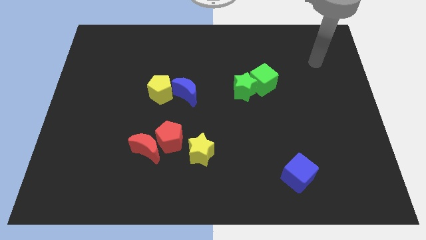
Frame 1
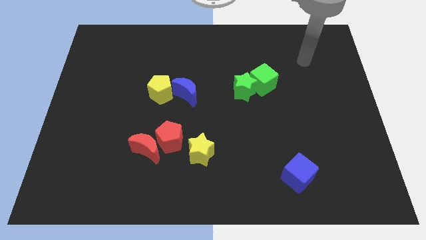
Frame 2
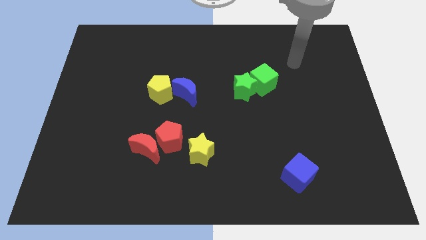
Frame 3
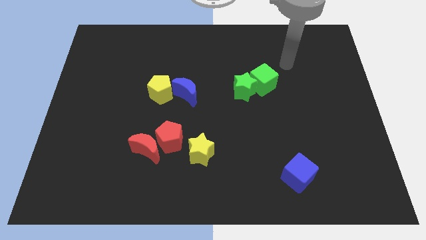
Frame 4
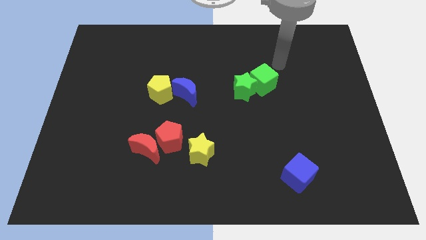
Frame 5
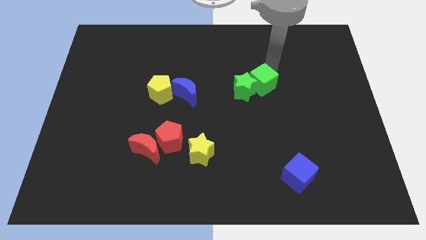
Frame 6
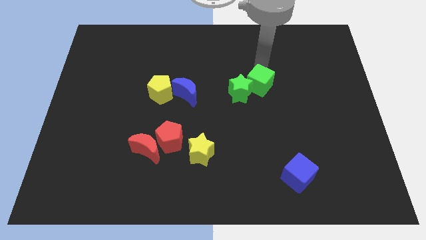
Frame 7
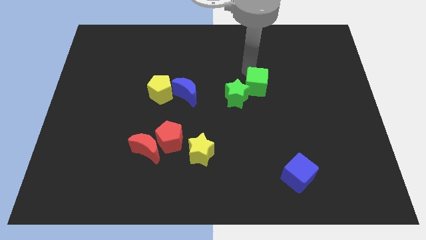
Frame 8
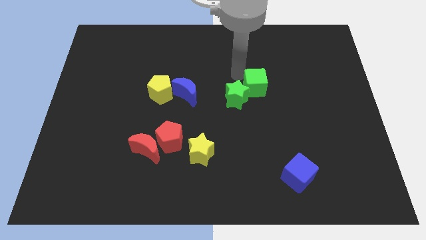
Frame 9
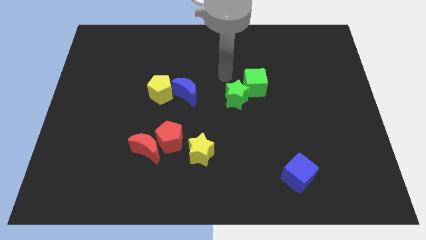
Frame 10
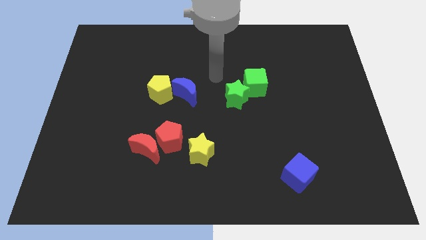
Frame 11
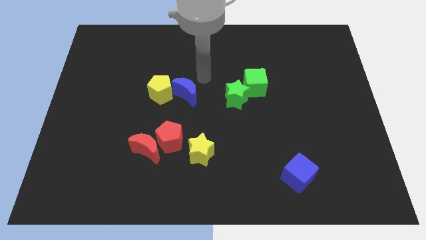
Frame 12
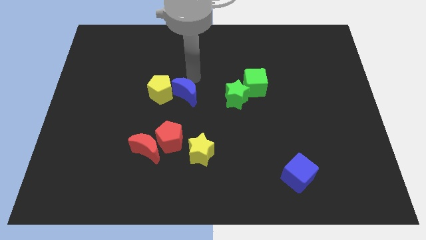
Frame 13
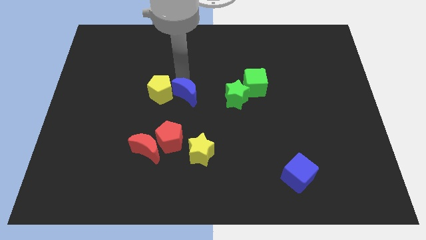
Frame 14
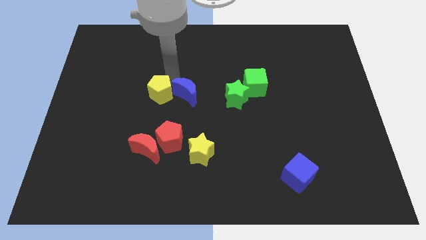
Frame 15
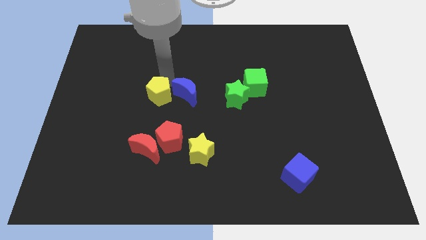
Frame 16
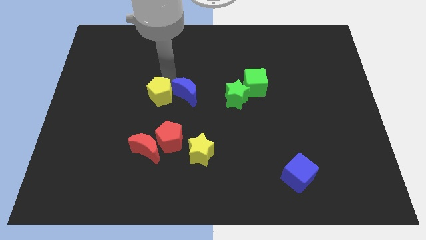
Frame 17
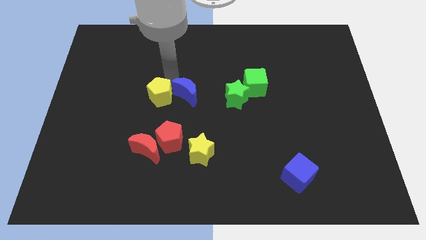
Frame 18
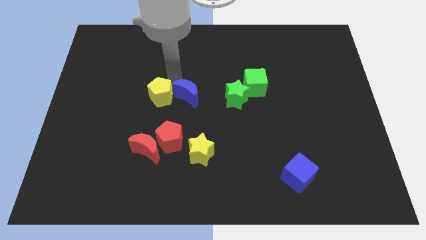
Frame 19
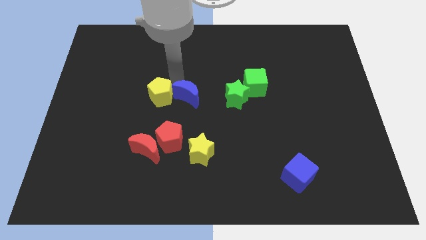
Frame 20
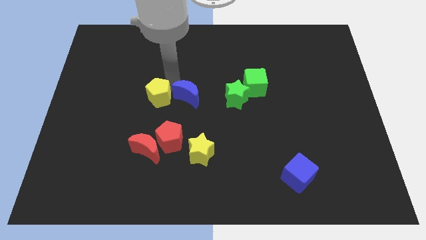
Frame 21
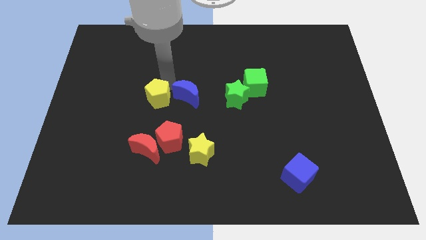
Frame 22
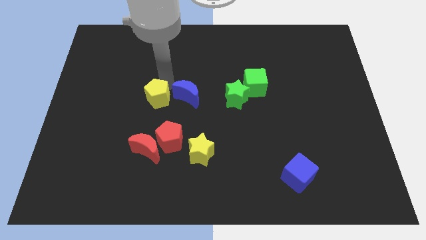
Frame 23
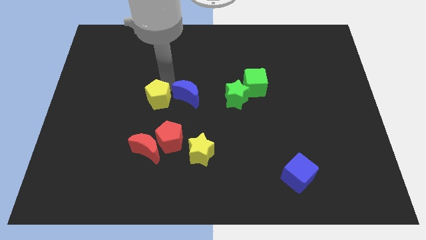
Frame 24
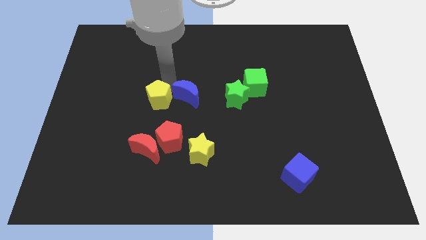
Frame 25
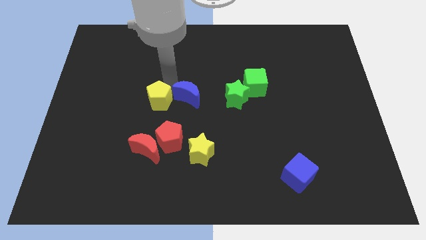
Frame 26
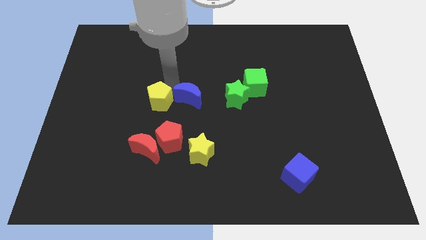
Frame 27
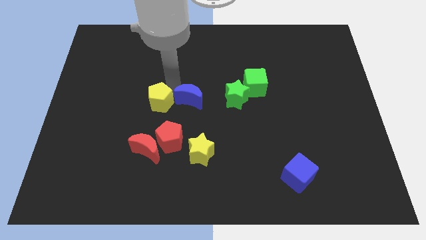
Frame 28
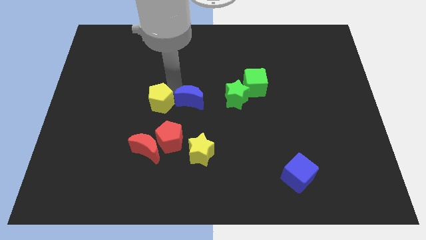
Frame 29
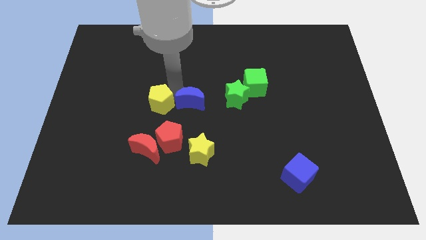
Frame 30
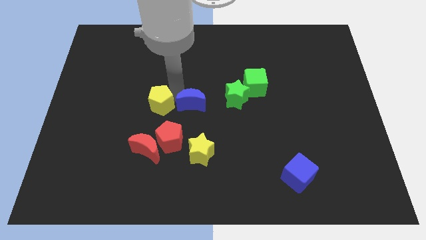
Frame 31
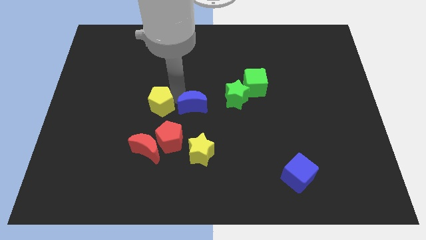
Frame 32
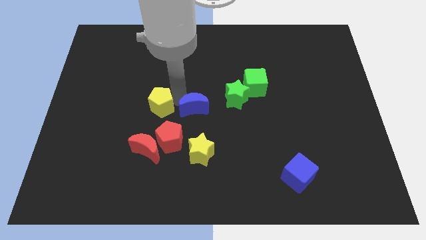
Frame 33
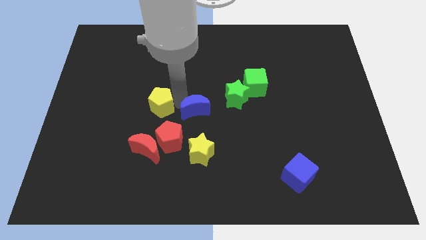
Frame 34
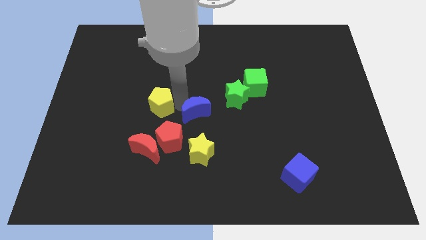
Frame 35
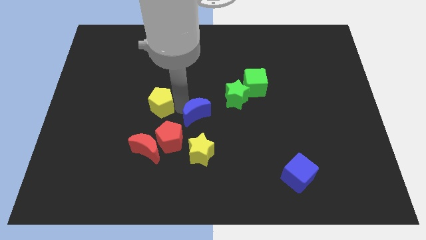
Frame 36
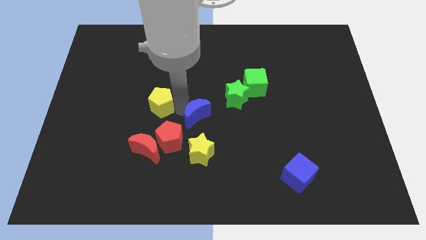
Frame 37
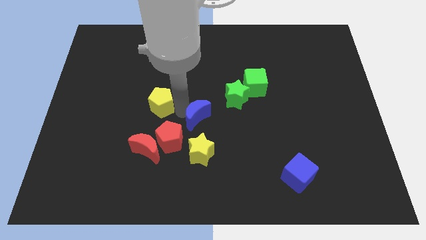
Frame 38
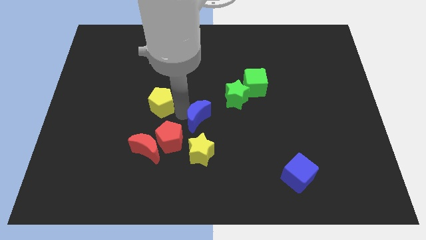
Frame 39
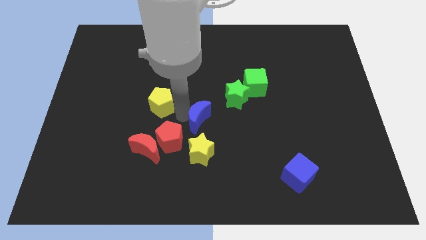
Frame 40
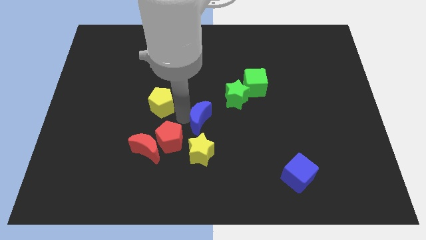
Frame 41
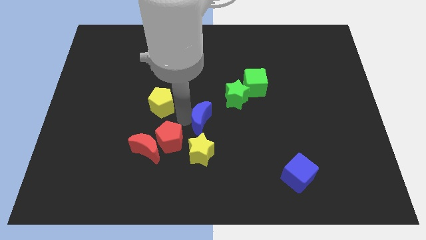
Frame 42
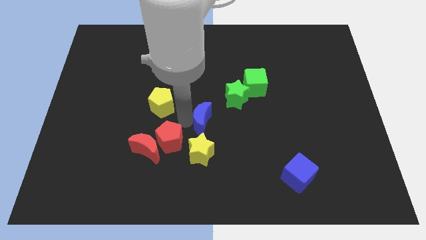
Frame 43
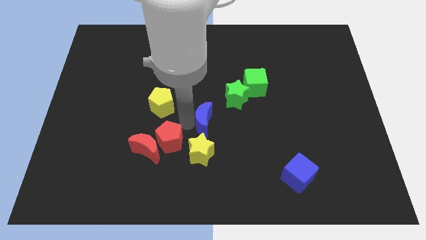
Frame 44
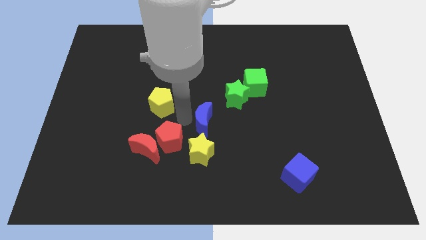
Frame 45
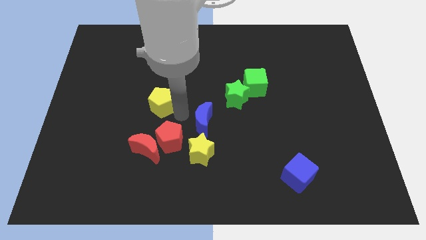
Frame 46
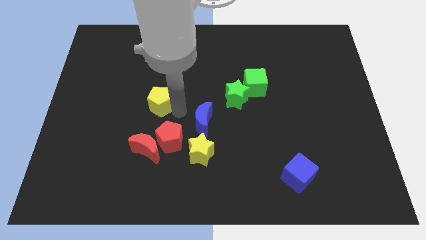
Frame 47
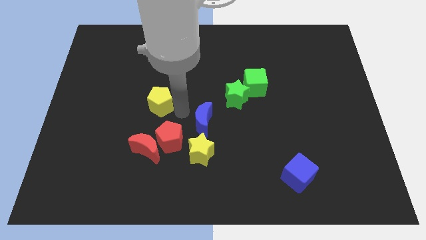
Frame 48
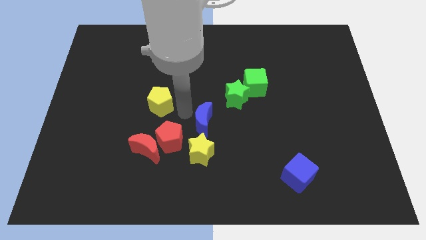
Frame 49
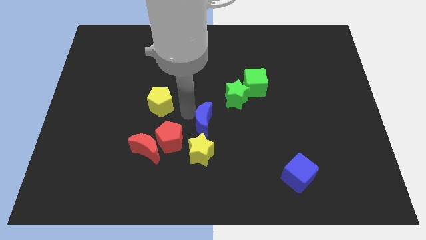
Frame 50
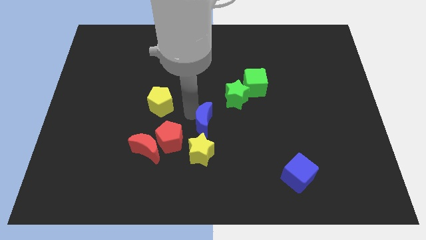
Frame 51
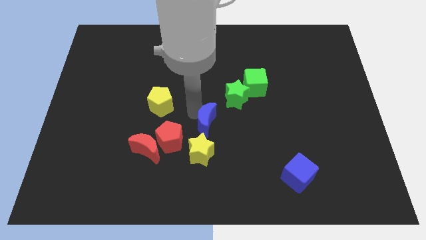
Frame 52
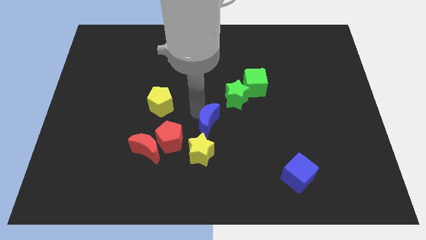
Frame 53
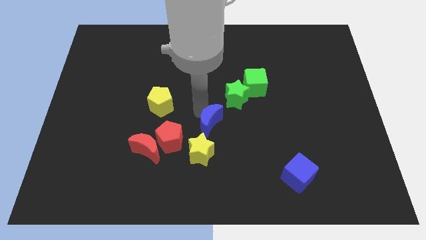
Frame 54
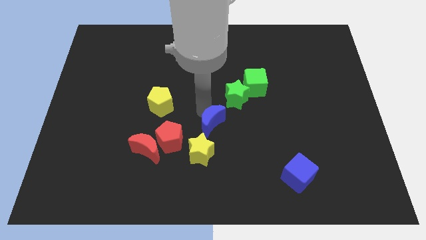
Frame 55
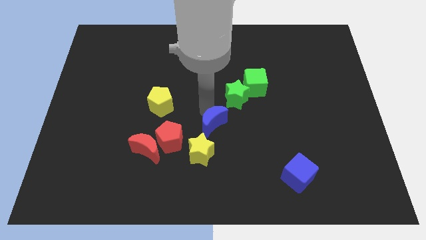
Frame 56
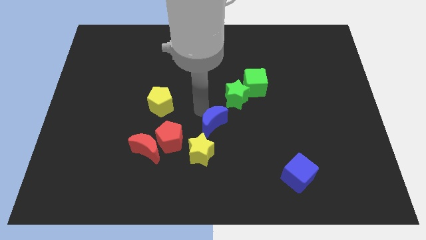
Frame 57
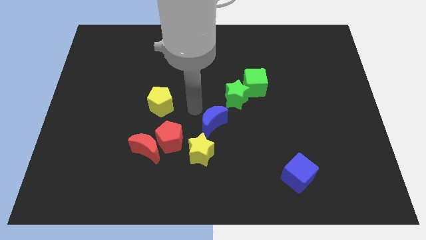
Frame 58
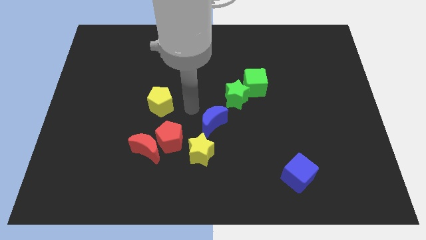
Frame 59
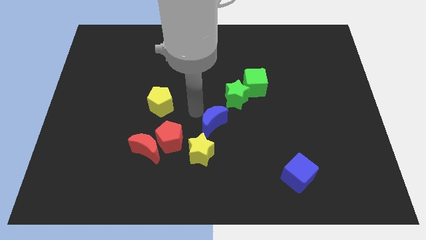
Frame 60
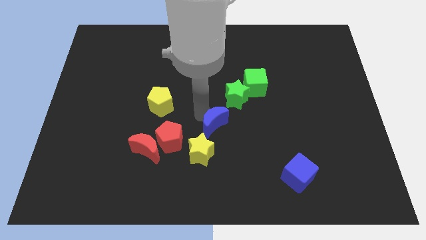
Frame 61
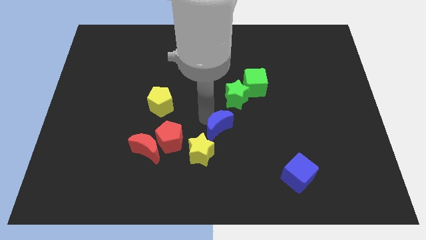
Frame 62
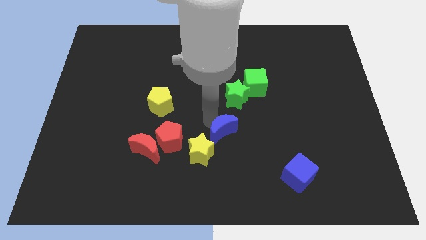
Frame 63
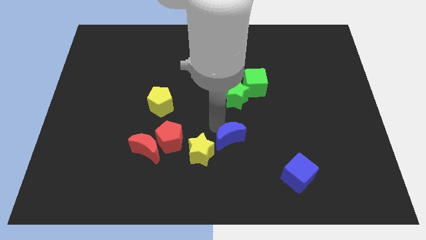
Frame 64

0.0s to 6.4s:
slide the blue moon to the right side of the yellow star
